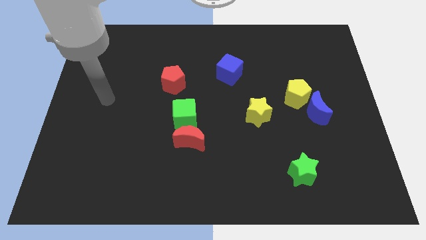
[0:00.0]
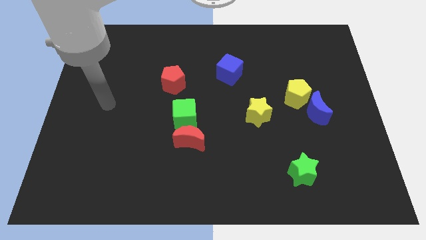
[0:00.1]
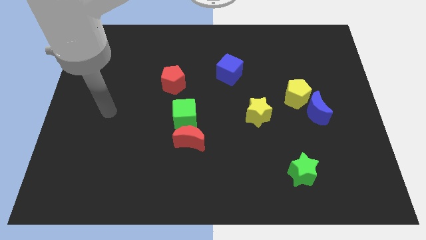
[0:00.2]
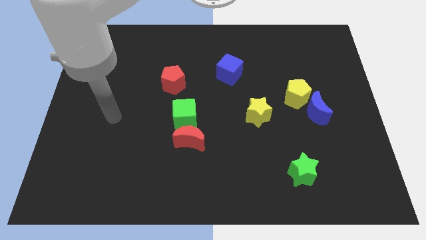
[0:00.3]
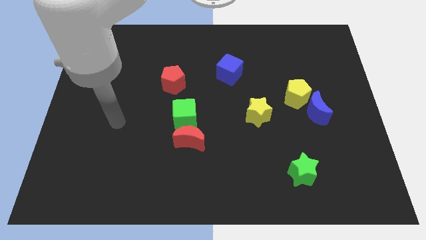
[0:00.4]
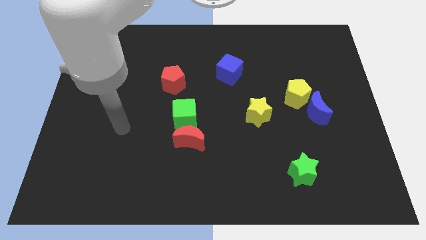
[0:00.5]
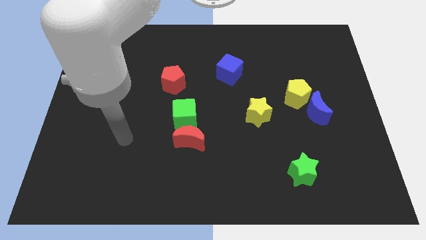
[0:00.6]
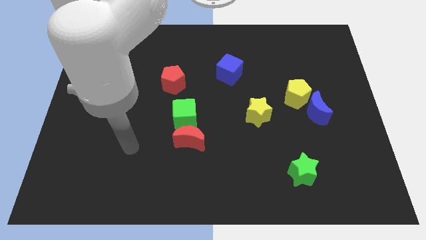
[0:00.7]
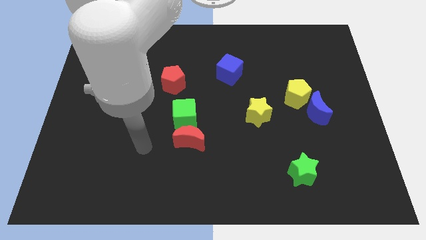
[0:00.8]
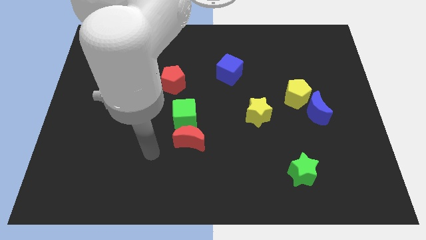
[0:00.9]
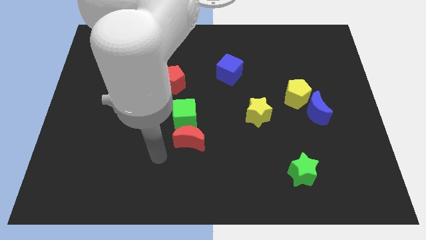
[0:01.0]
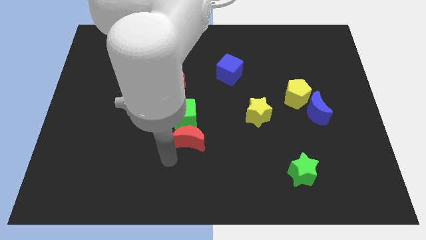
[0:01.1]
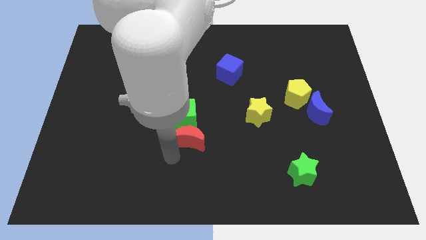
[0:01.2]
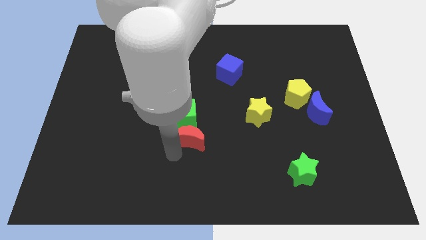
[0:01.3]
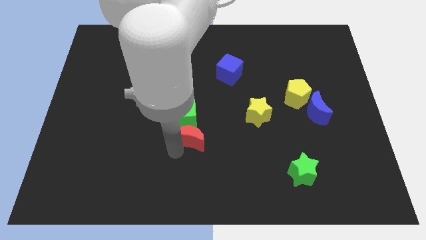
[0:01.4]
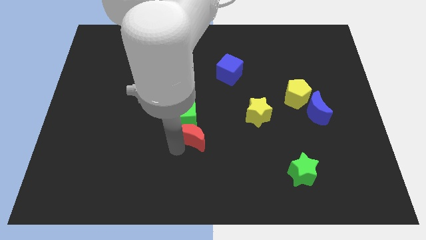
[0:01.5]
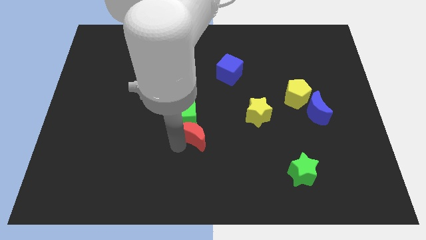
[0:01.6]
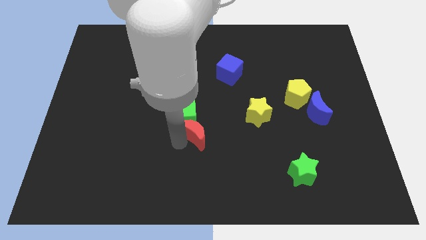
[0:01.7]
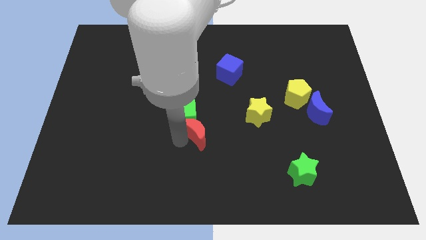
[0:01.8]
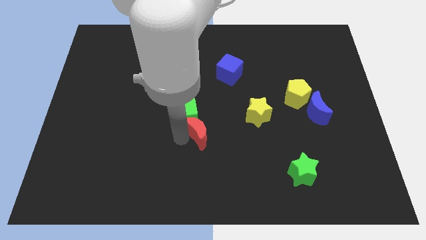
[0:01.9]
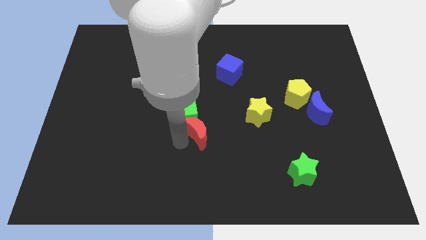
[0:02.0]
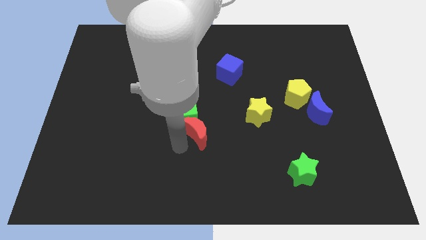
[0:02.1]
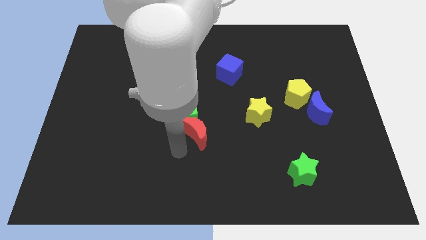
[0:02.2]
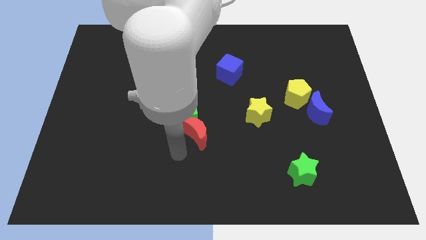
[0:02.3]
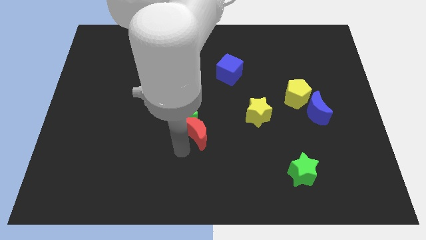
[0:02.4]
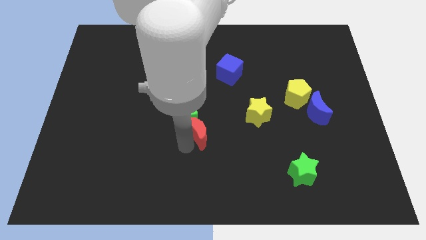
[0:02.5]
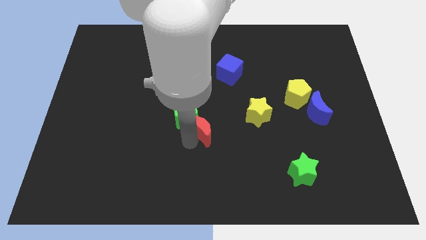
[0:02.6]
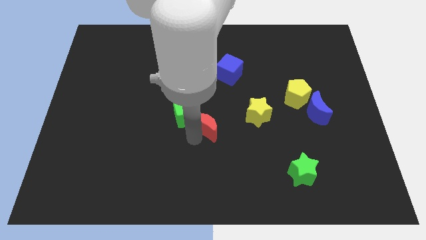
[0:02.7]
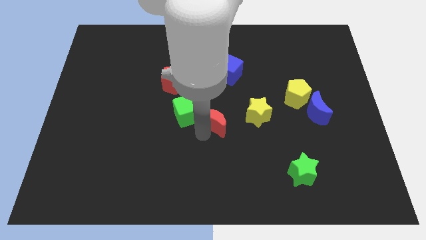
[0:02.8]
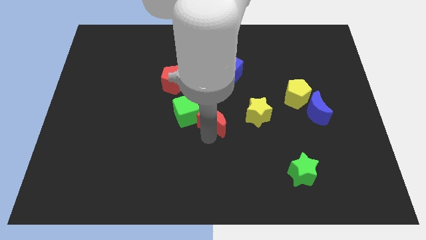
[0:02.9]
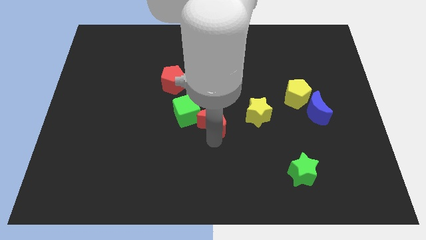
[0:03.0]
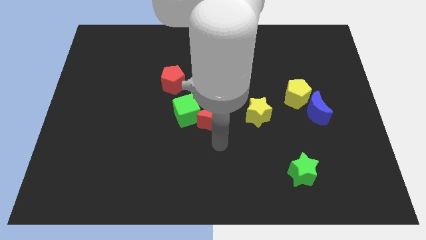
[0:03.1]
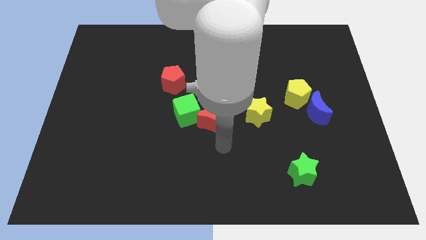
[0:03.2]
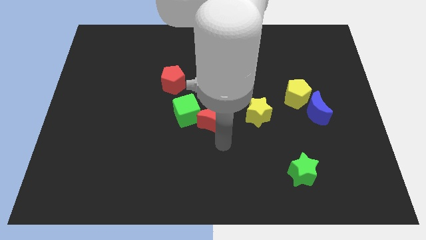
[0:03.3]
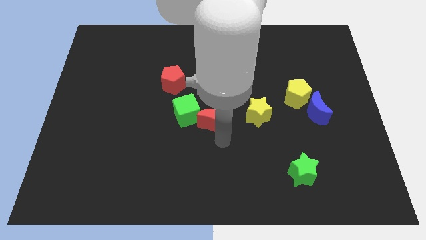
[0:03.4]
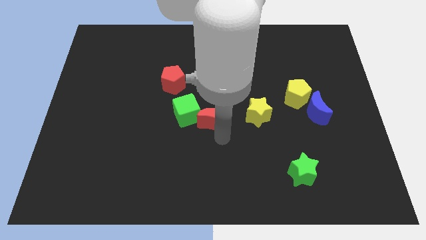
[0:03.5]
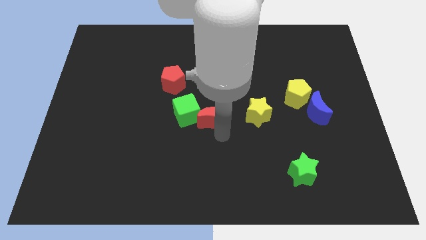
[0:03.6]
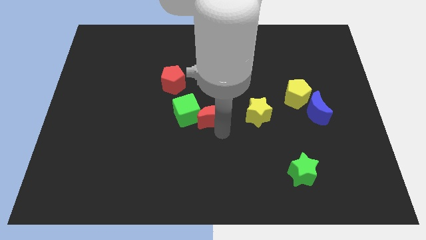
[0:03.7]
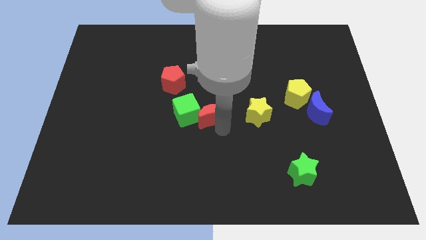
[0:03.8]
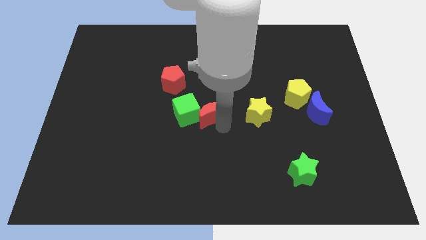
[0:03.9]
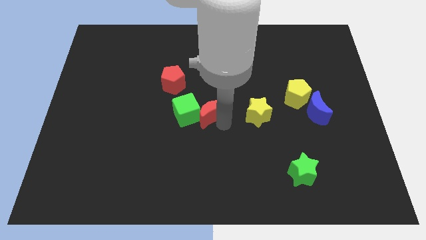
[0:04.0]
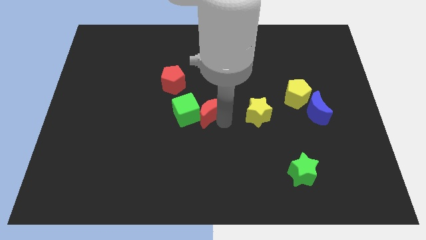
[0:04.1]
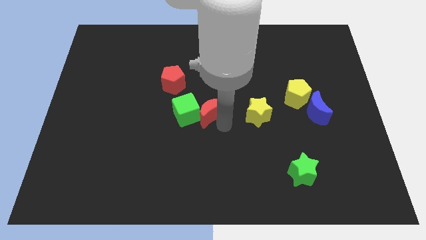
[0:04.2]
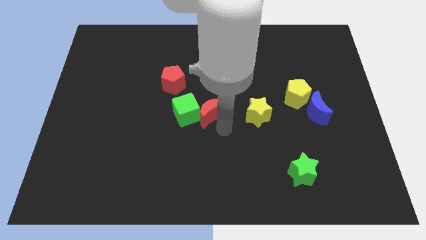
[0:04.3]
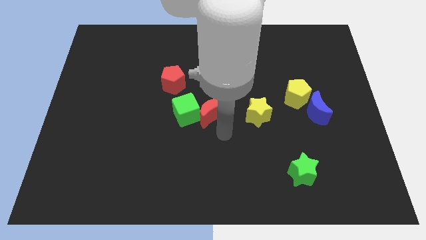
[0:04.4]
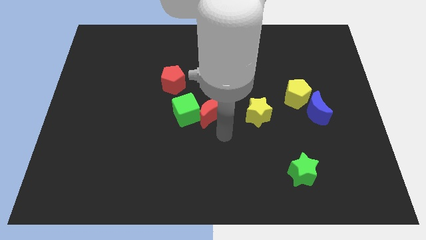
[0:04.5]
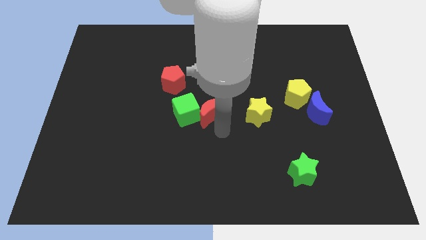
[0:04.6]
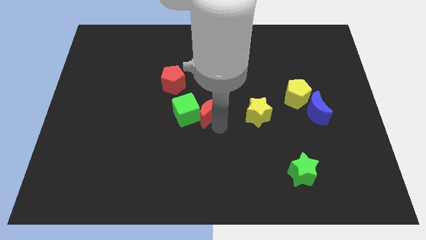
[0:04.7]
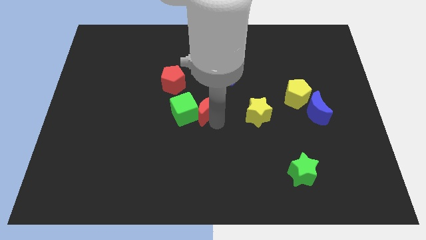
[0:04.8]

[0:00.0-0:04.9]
move the red moon a little bit upwards

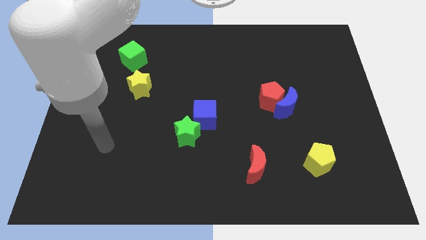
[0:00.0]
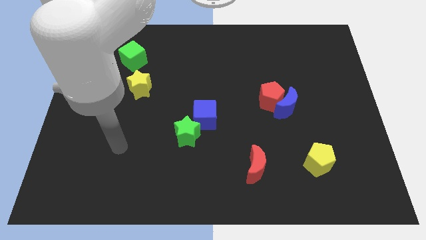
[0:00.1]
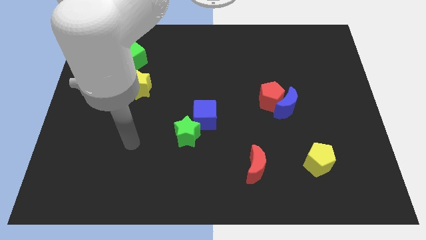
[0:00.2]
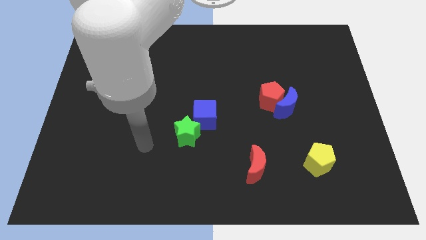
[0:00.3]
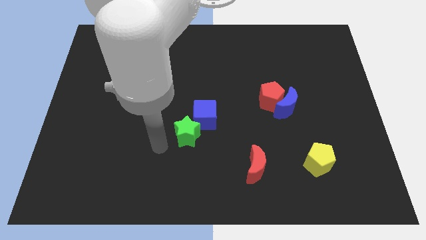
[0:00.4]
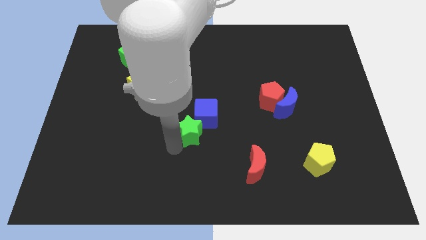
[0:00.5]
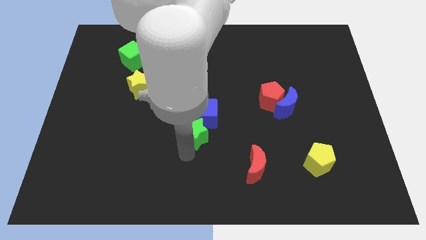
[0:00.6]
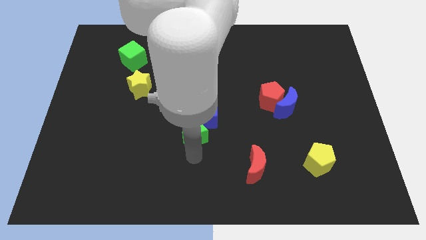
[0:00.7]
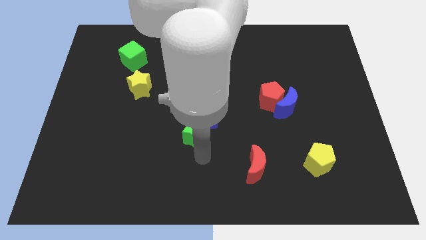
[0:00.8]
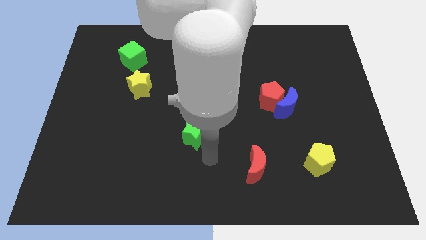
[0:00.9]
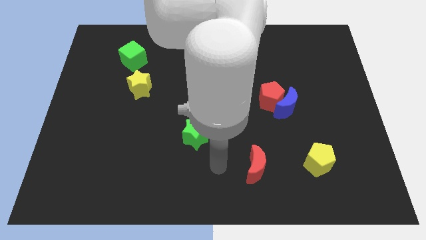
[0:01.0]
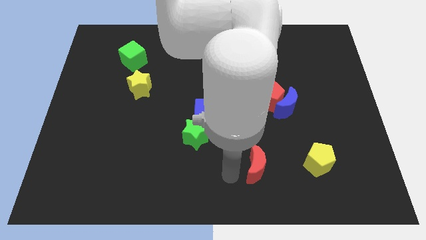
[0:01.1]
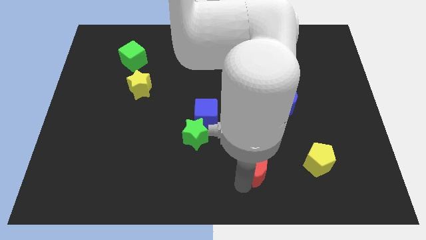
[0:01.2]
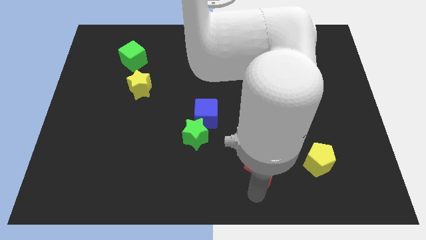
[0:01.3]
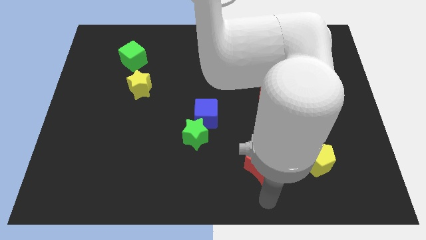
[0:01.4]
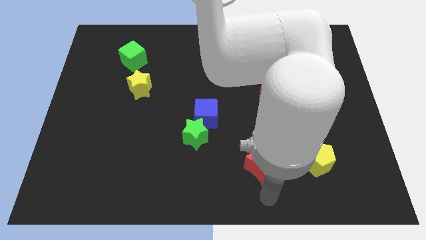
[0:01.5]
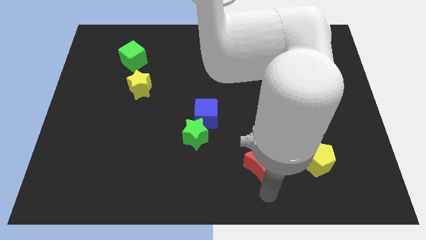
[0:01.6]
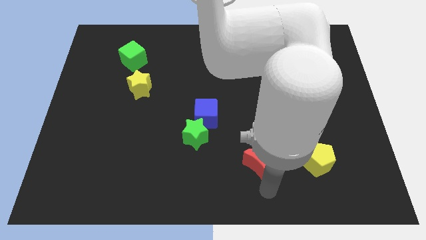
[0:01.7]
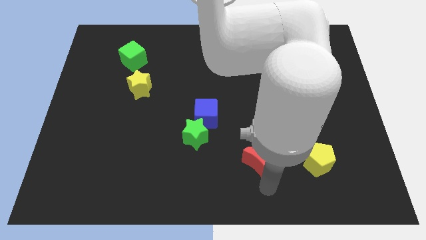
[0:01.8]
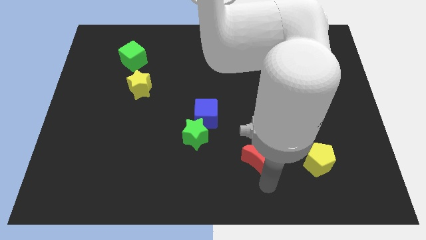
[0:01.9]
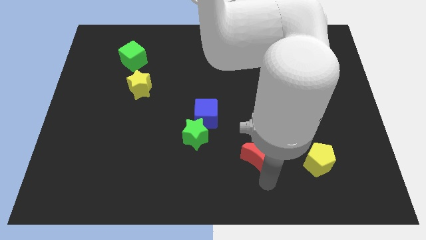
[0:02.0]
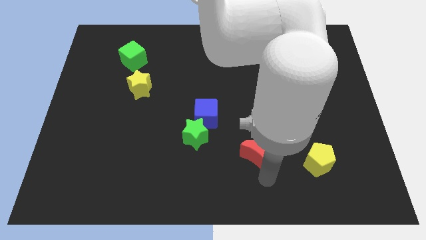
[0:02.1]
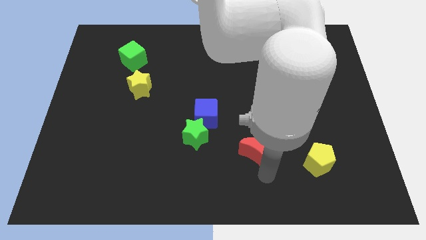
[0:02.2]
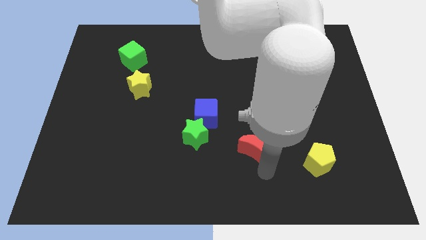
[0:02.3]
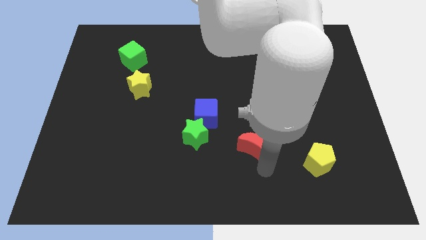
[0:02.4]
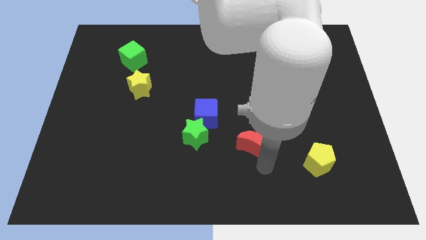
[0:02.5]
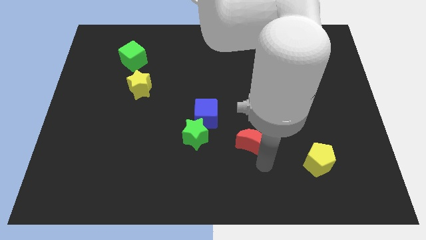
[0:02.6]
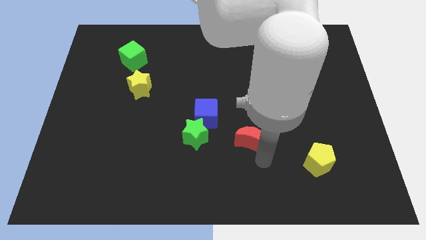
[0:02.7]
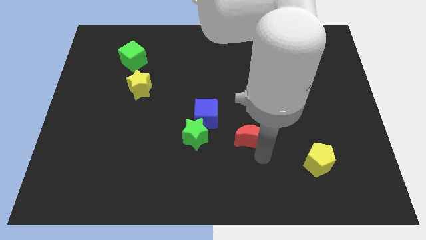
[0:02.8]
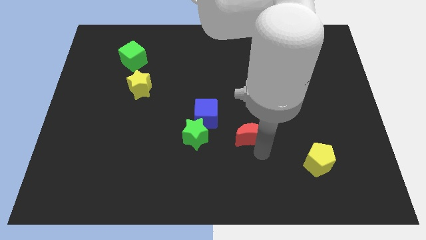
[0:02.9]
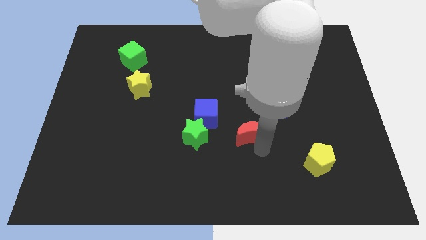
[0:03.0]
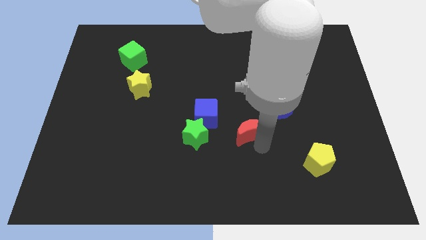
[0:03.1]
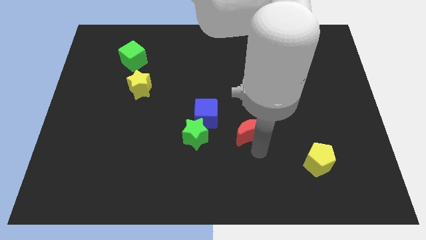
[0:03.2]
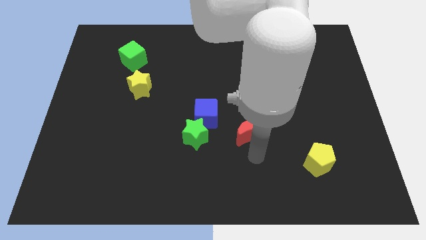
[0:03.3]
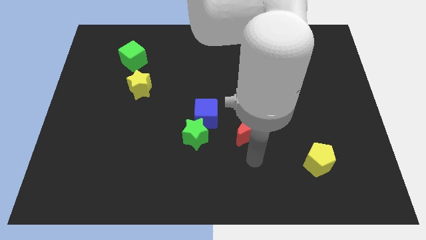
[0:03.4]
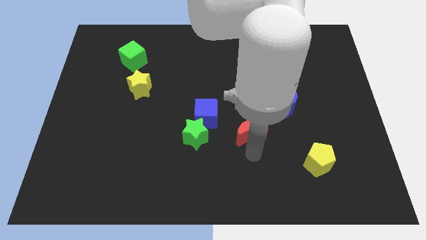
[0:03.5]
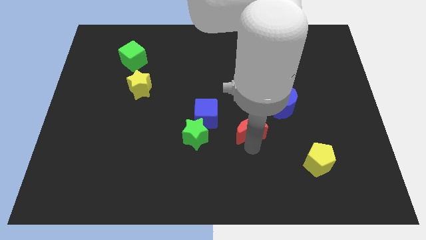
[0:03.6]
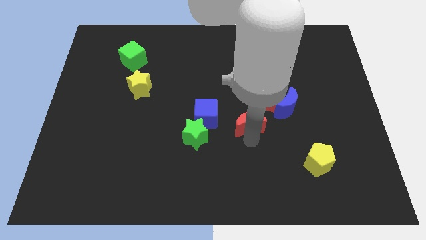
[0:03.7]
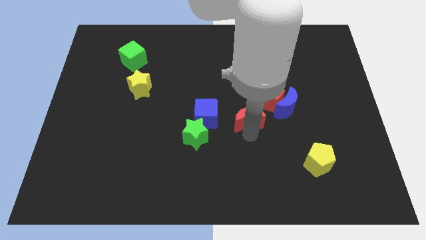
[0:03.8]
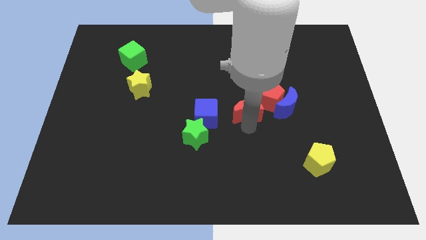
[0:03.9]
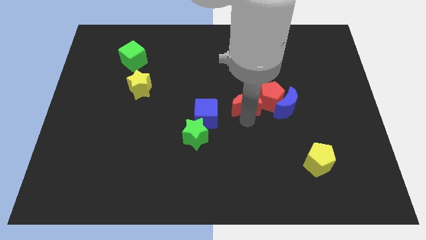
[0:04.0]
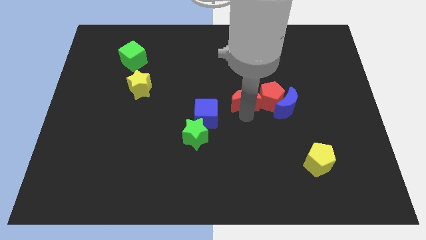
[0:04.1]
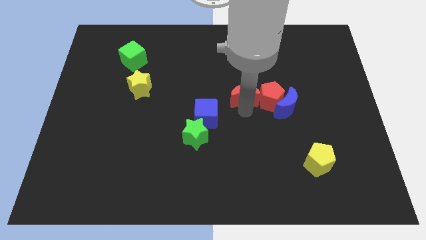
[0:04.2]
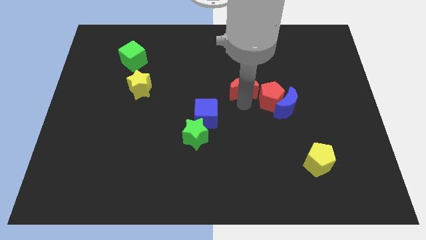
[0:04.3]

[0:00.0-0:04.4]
move the red moon upwards
